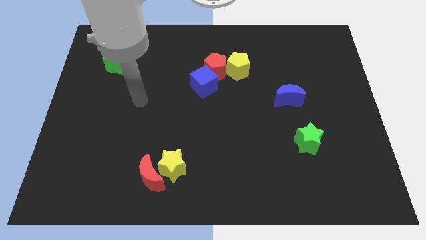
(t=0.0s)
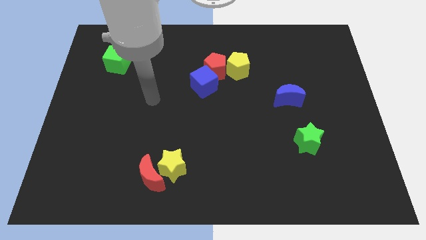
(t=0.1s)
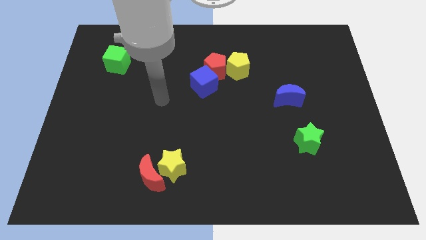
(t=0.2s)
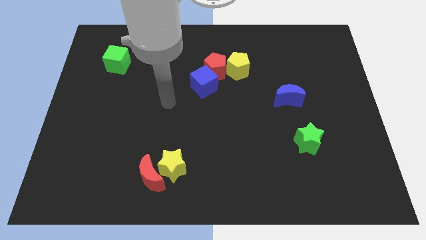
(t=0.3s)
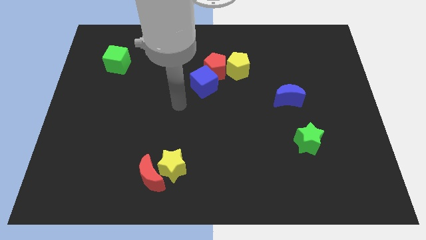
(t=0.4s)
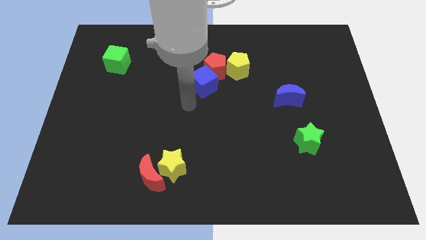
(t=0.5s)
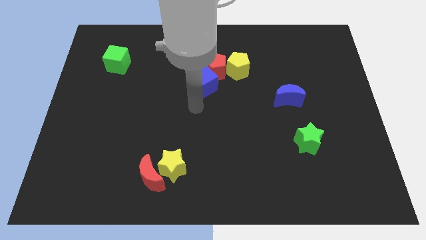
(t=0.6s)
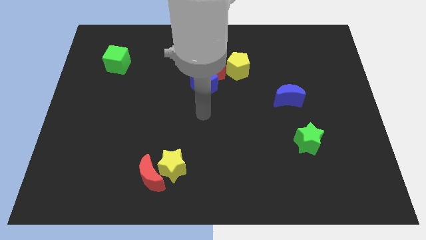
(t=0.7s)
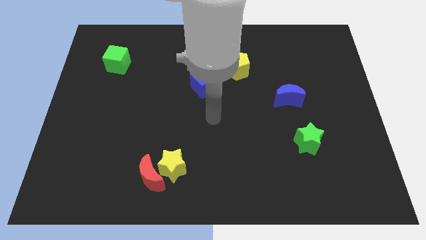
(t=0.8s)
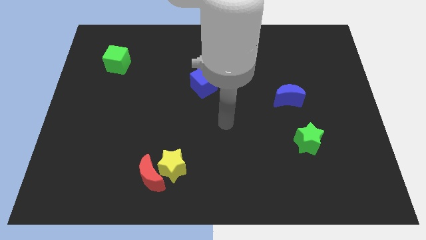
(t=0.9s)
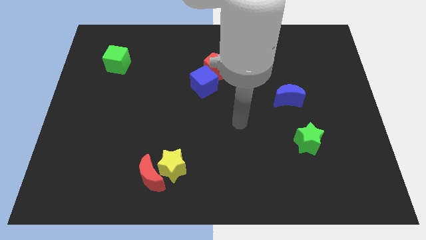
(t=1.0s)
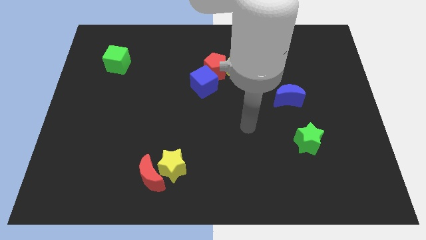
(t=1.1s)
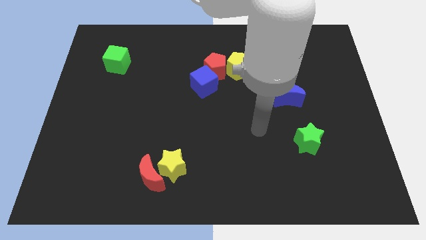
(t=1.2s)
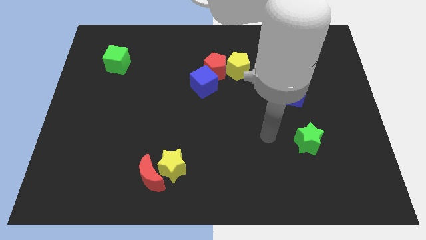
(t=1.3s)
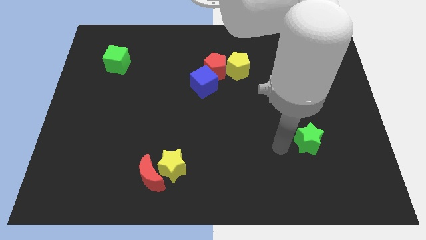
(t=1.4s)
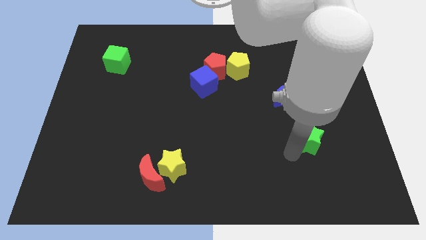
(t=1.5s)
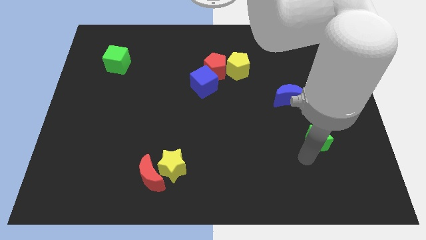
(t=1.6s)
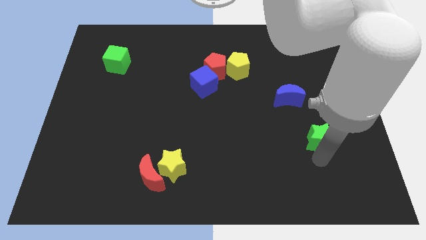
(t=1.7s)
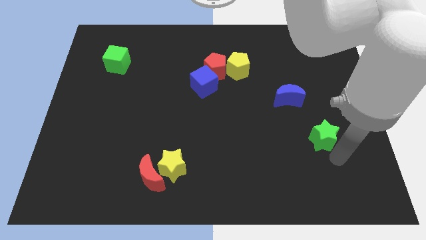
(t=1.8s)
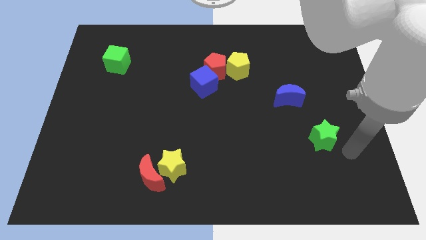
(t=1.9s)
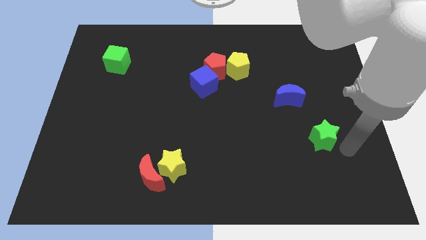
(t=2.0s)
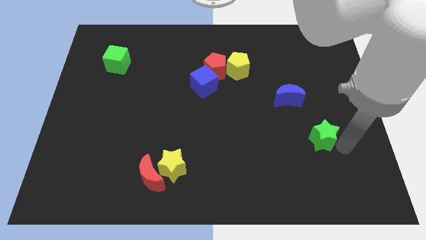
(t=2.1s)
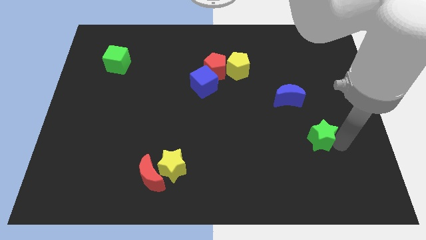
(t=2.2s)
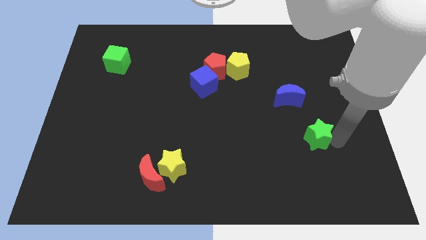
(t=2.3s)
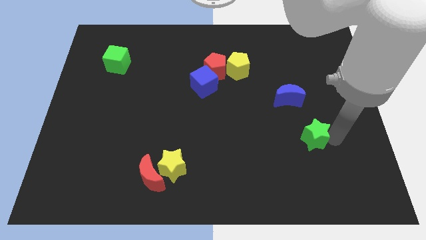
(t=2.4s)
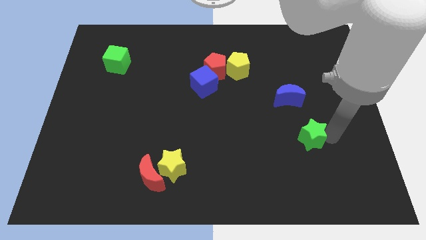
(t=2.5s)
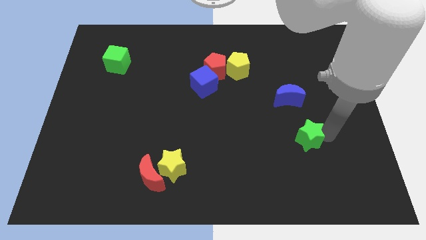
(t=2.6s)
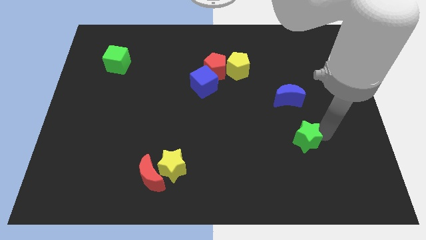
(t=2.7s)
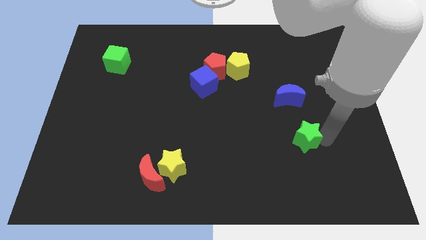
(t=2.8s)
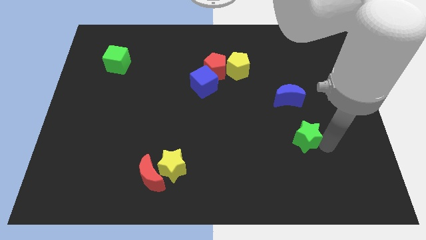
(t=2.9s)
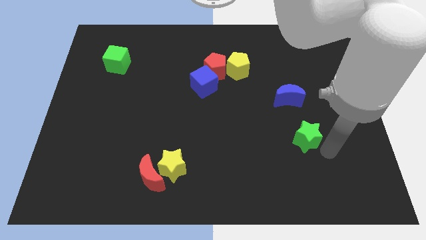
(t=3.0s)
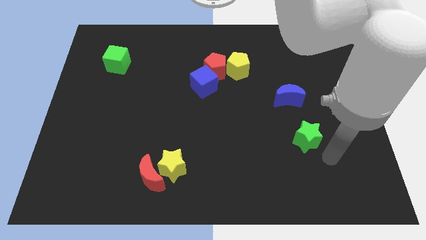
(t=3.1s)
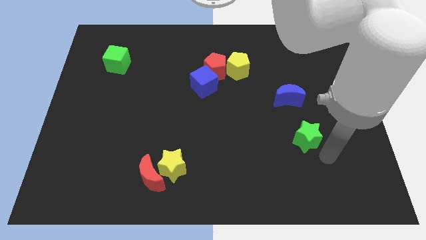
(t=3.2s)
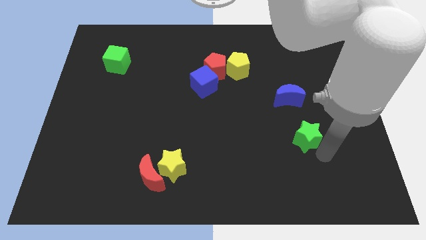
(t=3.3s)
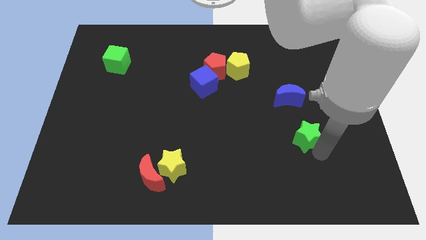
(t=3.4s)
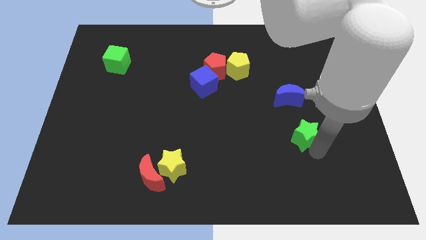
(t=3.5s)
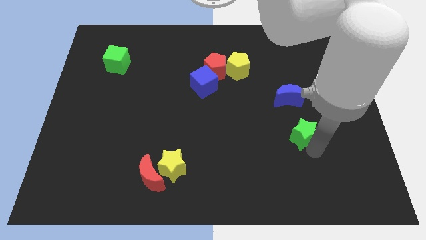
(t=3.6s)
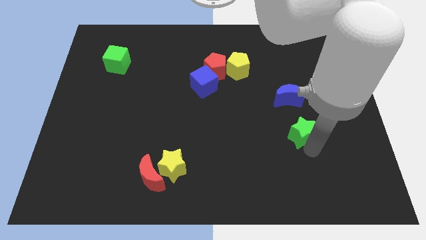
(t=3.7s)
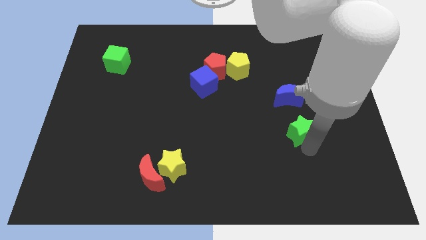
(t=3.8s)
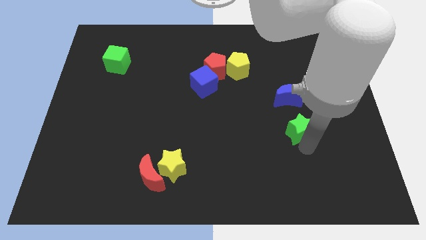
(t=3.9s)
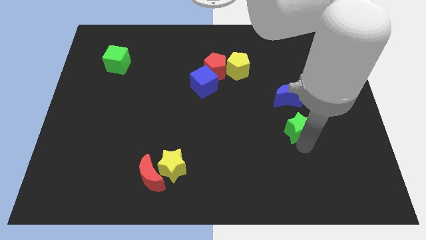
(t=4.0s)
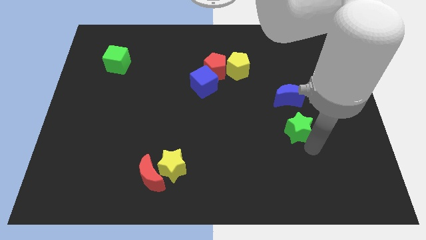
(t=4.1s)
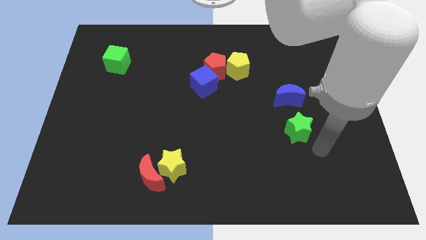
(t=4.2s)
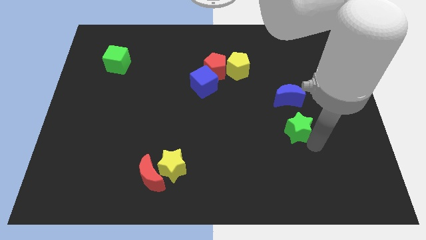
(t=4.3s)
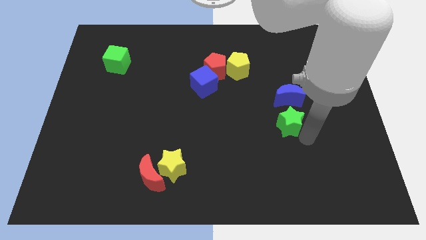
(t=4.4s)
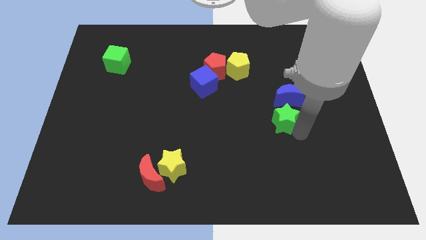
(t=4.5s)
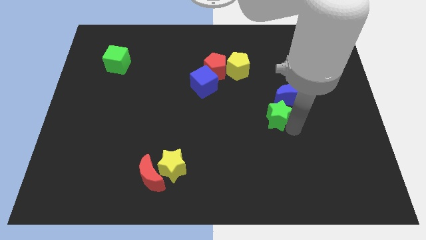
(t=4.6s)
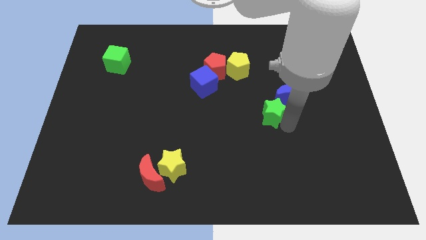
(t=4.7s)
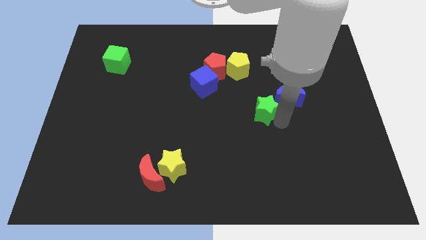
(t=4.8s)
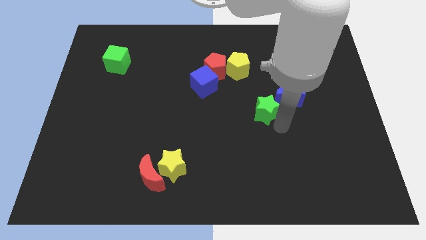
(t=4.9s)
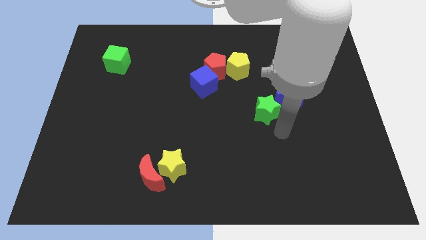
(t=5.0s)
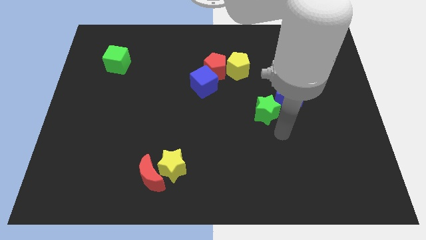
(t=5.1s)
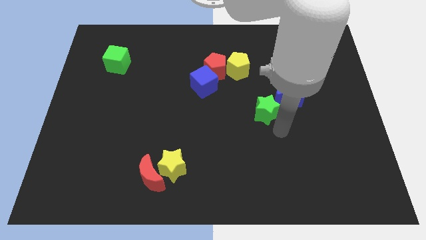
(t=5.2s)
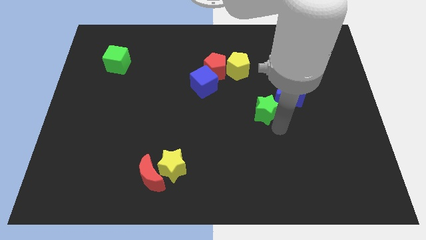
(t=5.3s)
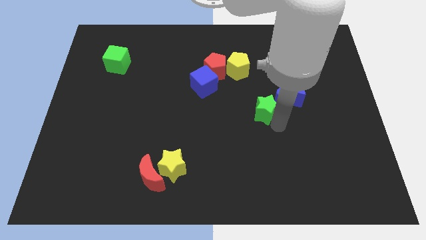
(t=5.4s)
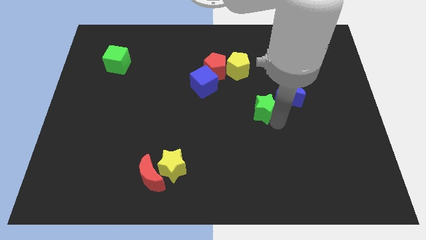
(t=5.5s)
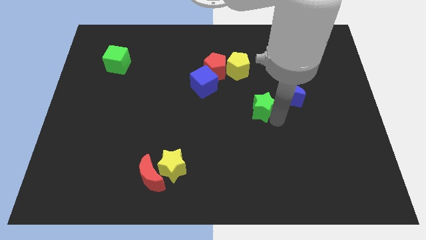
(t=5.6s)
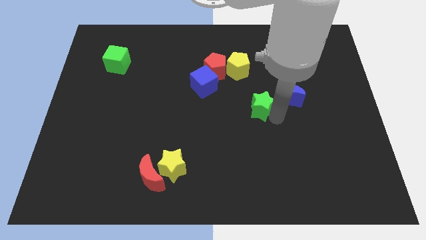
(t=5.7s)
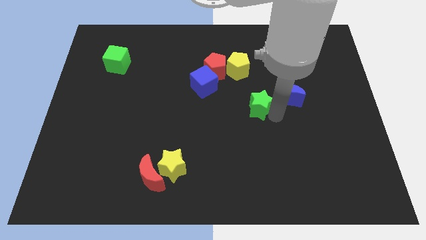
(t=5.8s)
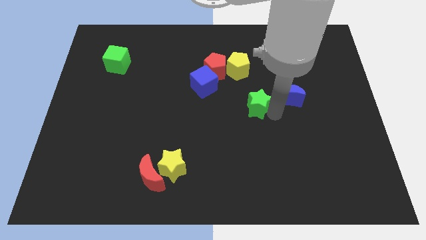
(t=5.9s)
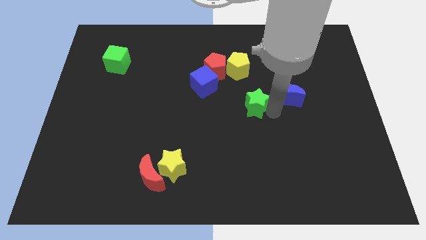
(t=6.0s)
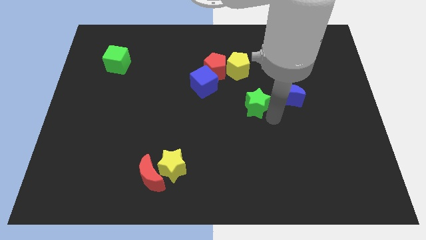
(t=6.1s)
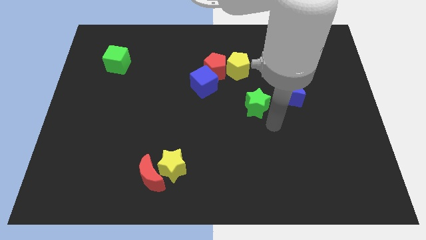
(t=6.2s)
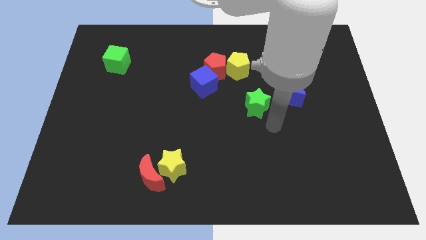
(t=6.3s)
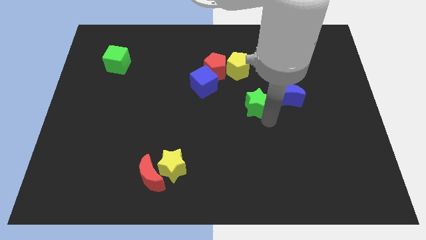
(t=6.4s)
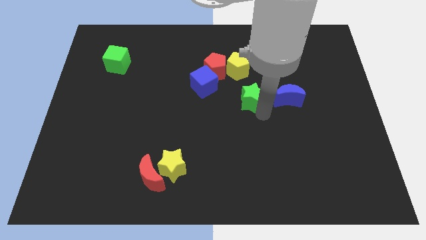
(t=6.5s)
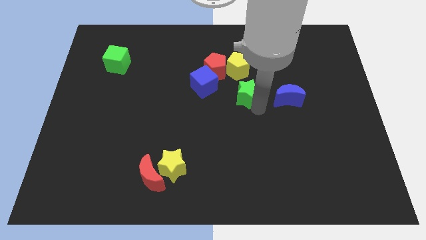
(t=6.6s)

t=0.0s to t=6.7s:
move the green star to the bottom right of the red pentagon

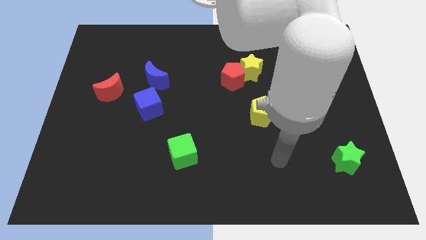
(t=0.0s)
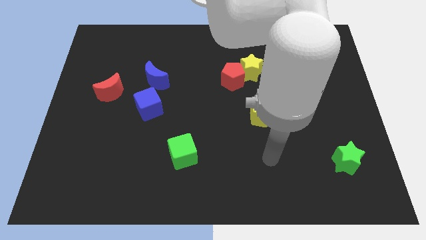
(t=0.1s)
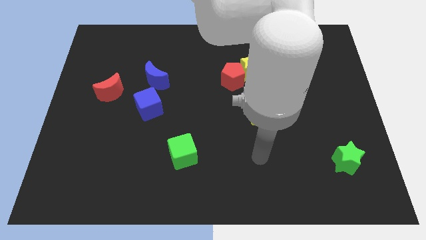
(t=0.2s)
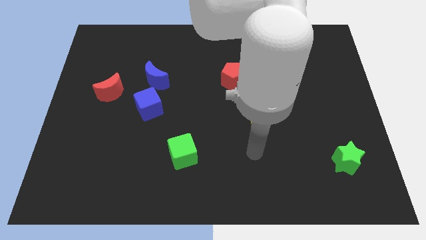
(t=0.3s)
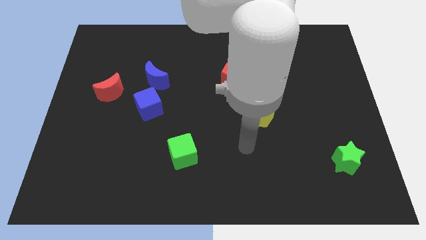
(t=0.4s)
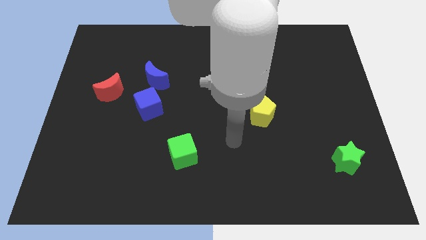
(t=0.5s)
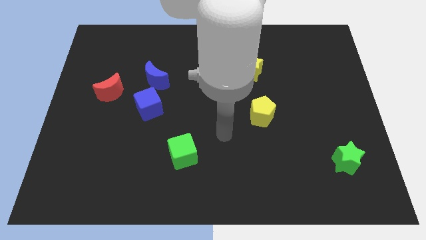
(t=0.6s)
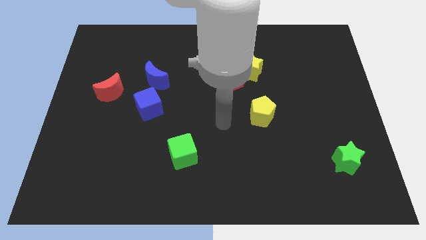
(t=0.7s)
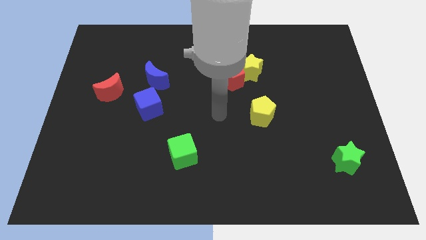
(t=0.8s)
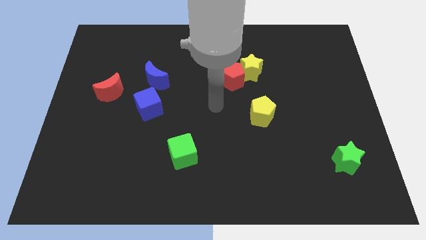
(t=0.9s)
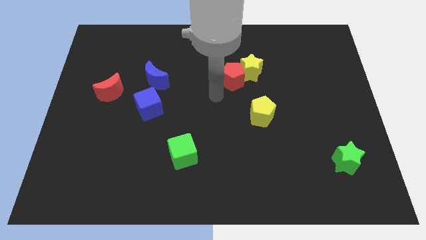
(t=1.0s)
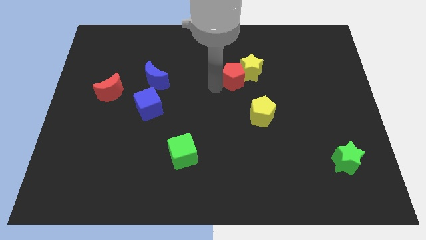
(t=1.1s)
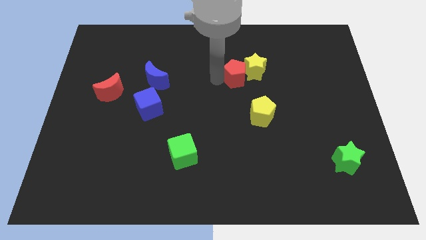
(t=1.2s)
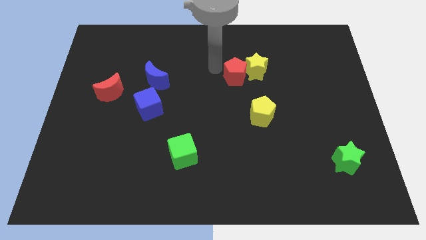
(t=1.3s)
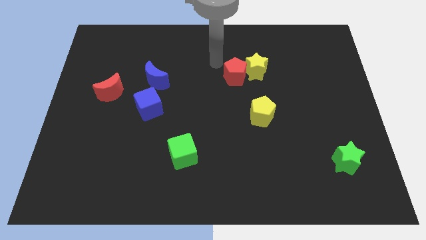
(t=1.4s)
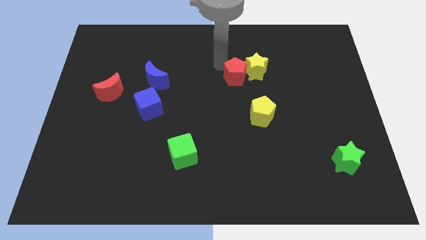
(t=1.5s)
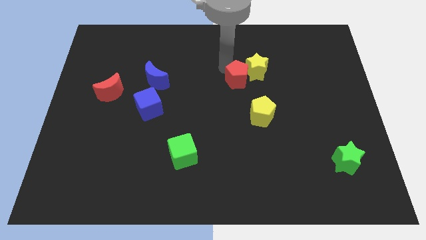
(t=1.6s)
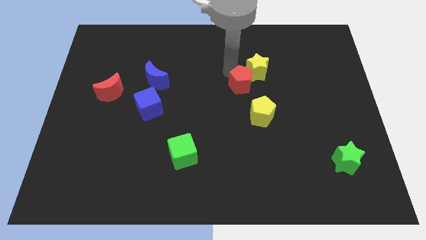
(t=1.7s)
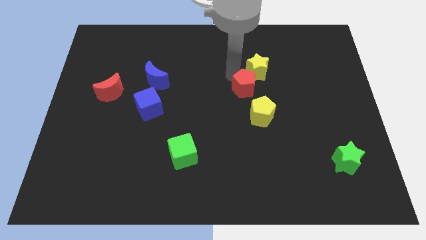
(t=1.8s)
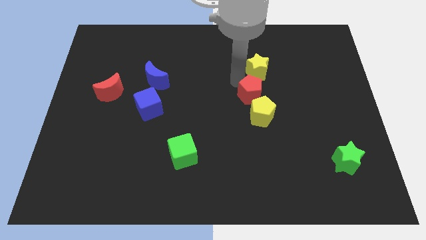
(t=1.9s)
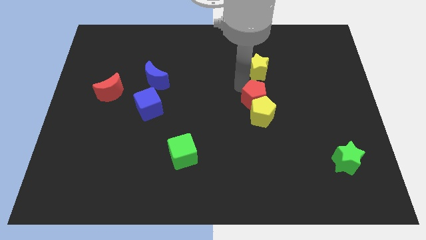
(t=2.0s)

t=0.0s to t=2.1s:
push the red pentagon diagonally up and to the right of the yellow pentagon
